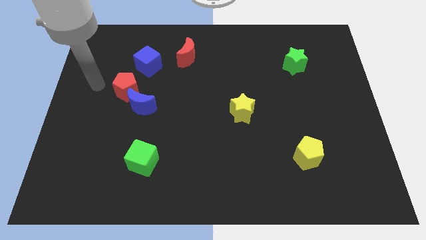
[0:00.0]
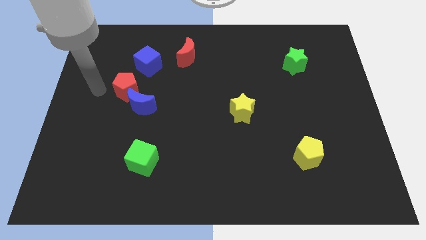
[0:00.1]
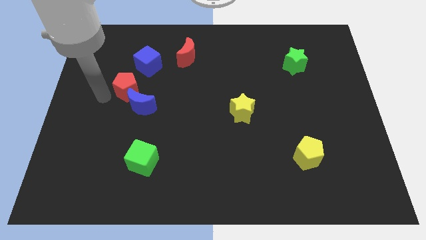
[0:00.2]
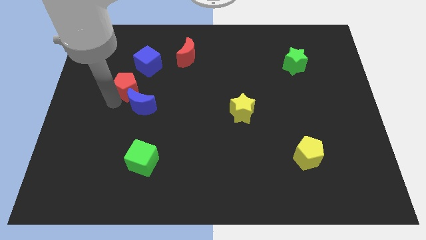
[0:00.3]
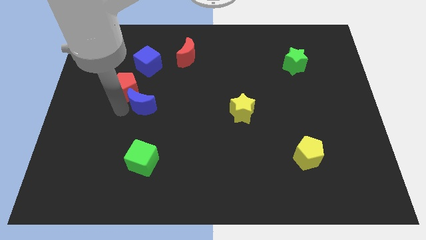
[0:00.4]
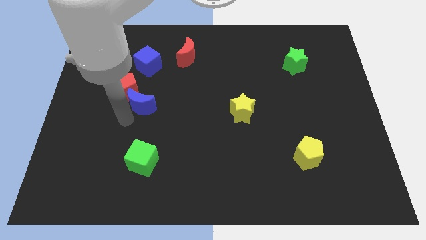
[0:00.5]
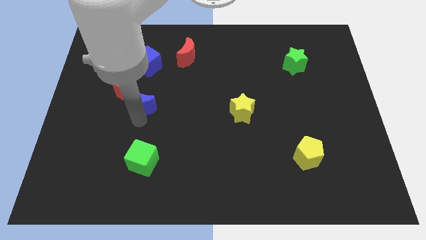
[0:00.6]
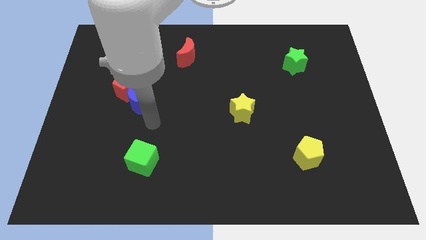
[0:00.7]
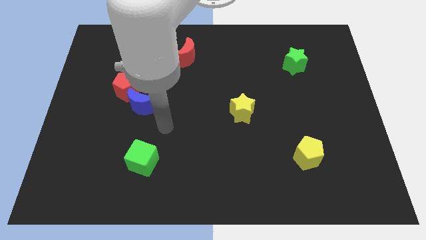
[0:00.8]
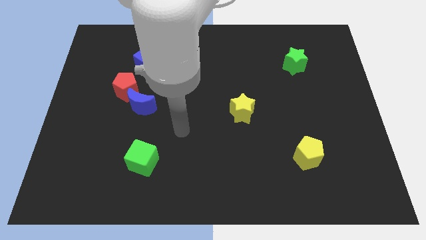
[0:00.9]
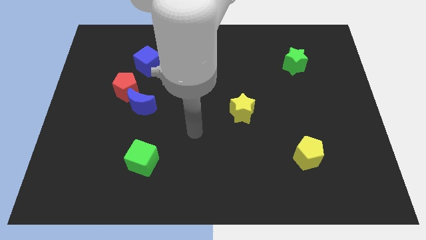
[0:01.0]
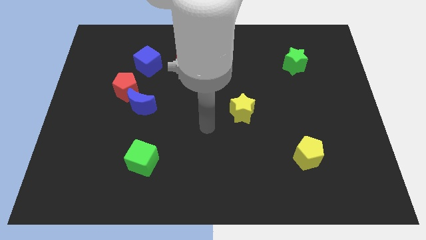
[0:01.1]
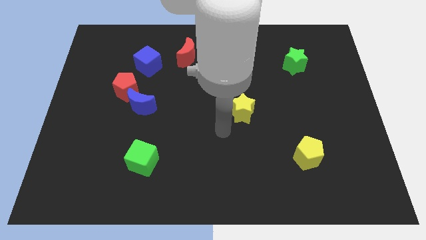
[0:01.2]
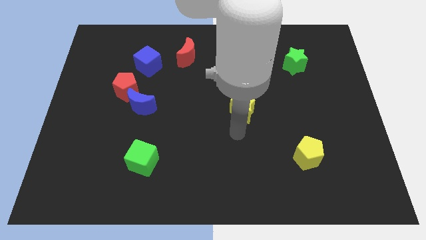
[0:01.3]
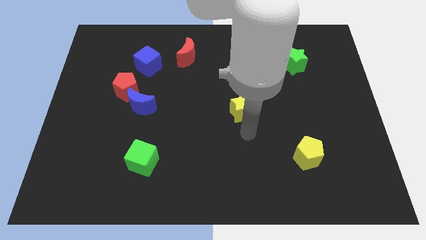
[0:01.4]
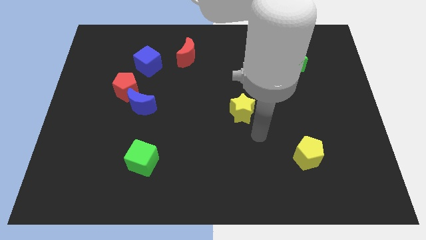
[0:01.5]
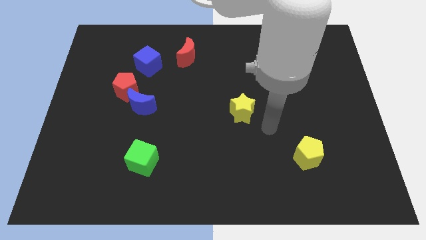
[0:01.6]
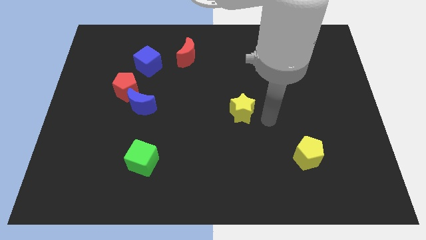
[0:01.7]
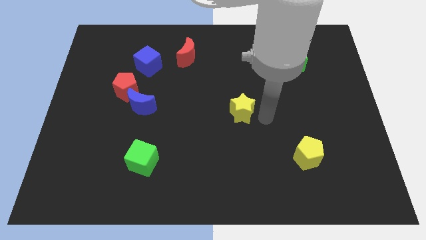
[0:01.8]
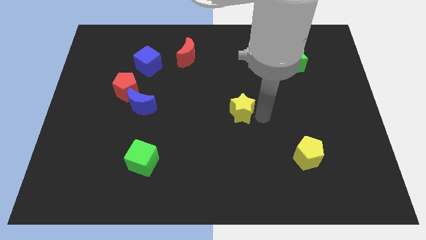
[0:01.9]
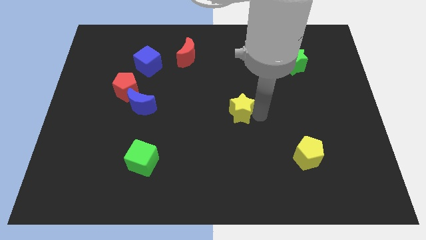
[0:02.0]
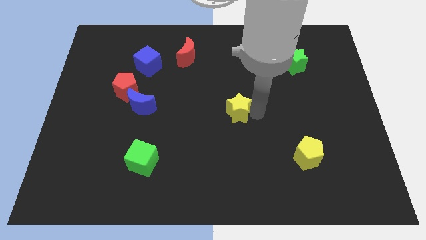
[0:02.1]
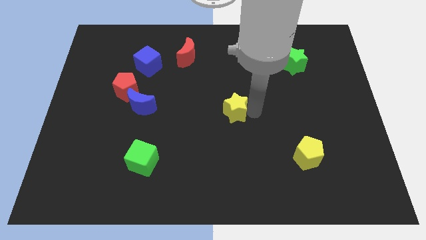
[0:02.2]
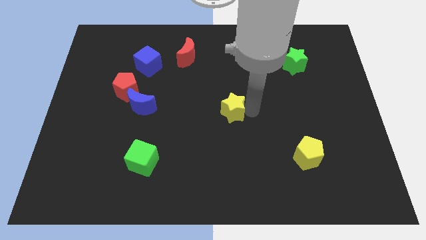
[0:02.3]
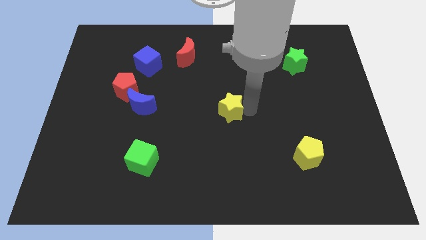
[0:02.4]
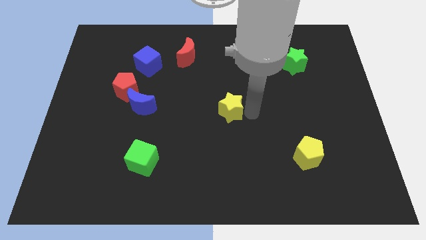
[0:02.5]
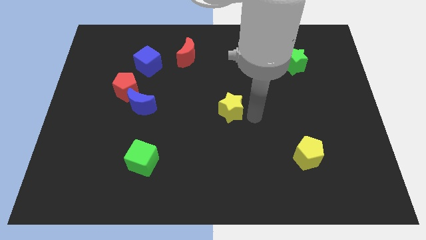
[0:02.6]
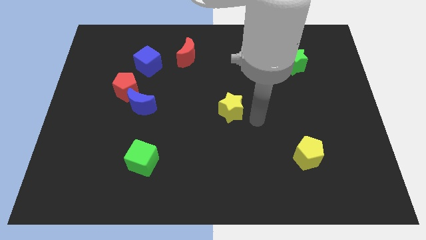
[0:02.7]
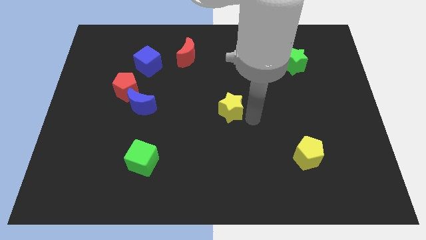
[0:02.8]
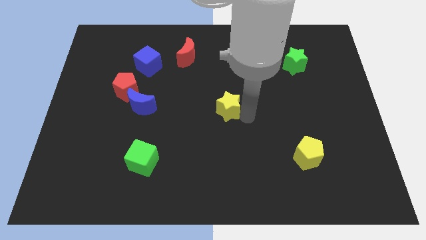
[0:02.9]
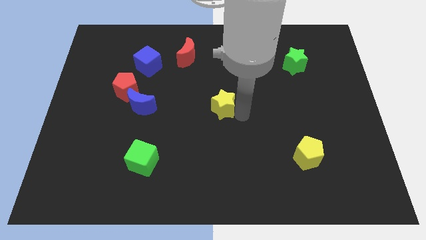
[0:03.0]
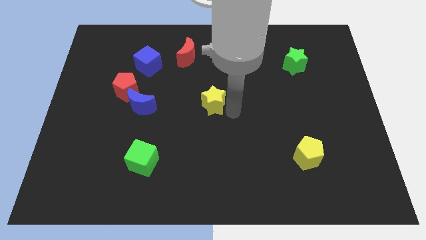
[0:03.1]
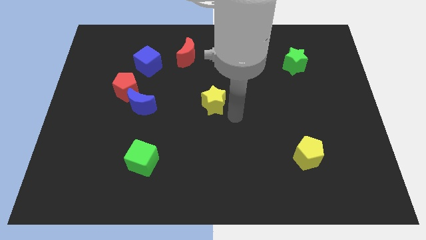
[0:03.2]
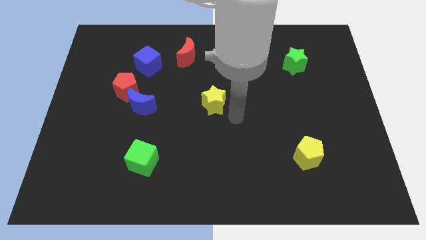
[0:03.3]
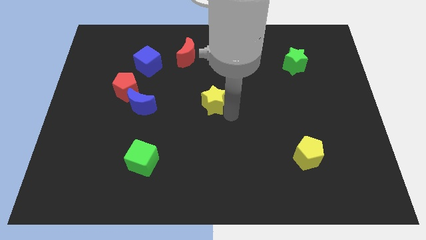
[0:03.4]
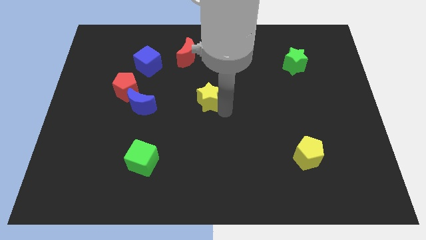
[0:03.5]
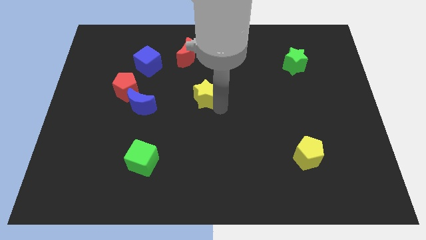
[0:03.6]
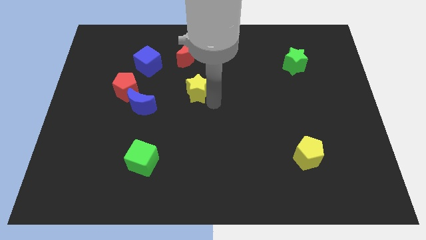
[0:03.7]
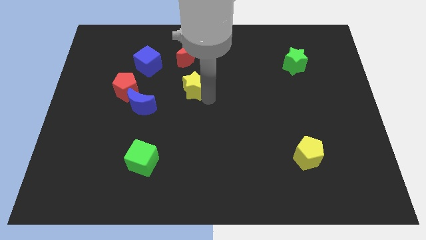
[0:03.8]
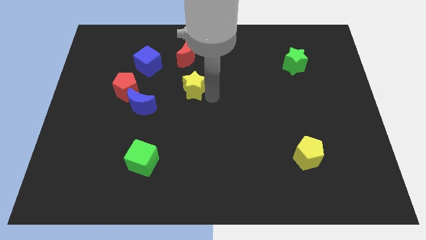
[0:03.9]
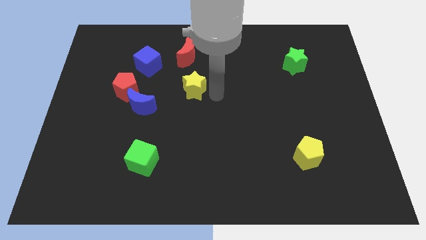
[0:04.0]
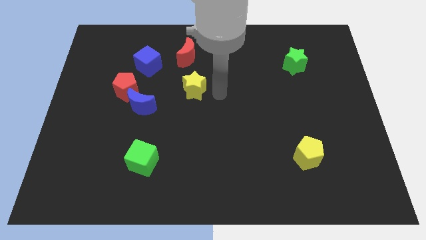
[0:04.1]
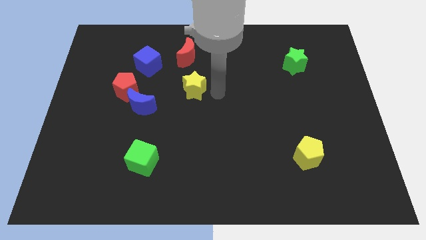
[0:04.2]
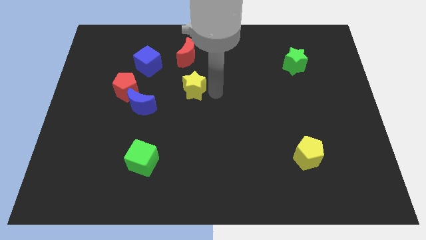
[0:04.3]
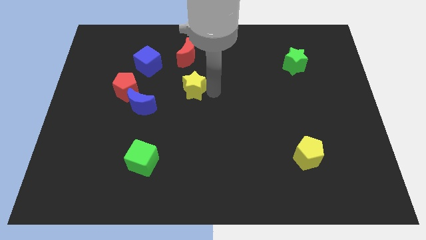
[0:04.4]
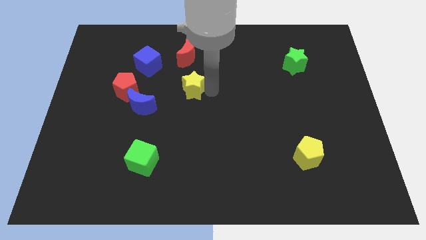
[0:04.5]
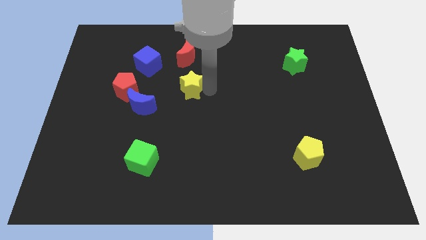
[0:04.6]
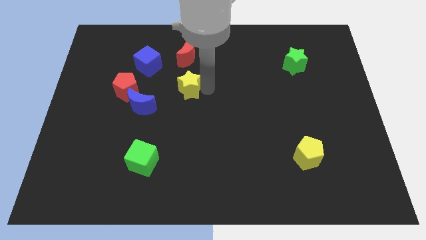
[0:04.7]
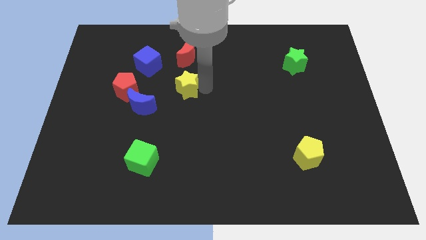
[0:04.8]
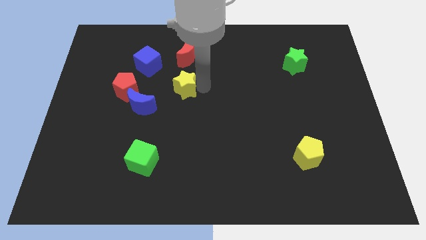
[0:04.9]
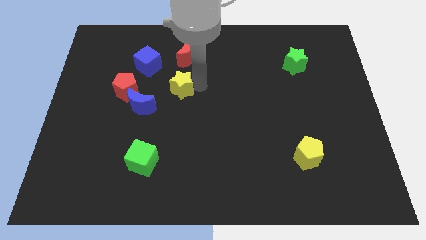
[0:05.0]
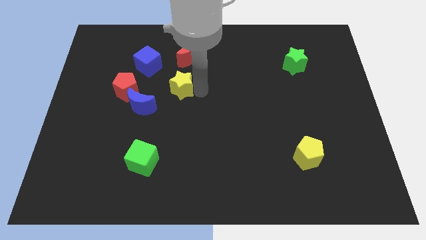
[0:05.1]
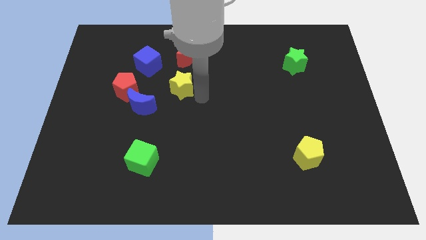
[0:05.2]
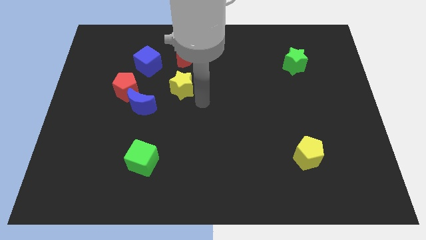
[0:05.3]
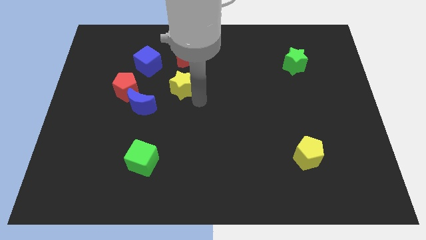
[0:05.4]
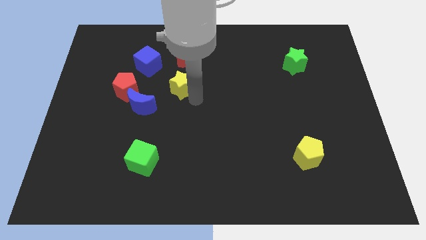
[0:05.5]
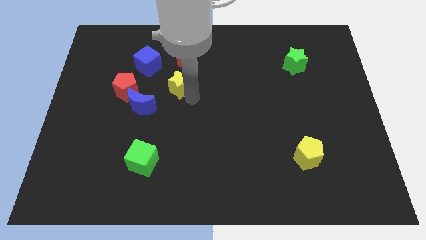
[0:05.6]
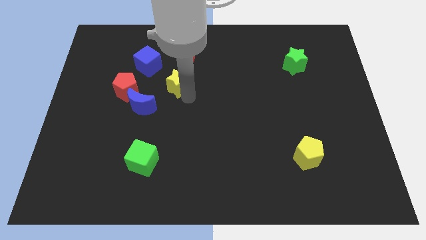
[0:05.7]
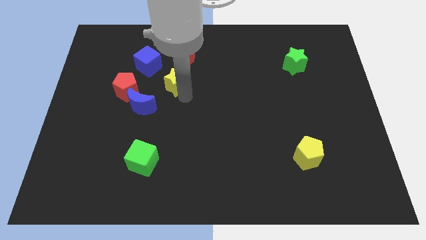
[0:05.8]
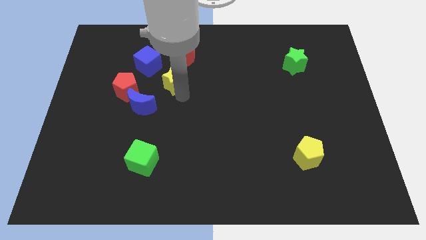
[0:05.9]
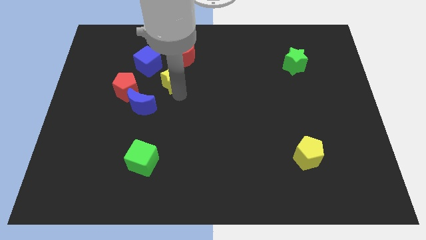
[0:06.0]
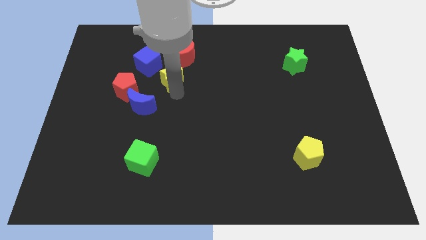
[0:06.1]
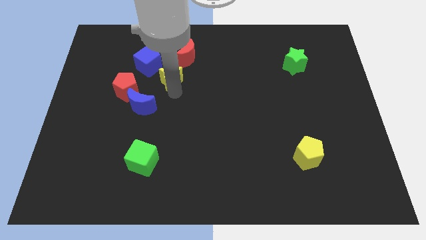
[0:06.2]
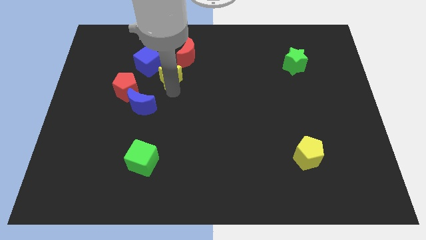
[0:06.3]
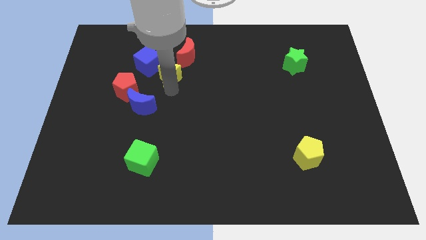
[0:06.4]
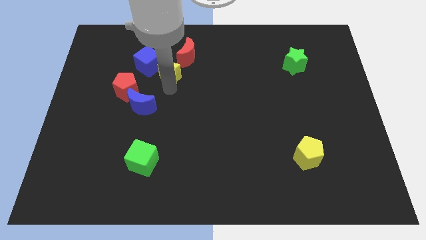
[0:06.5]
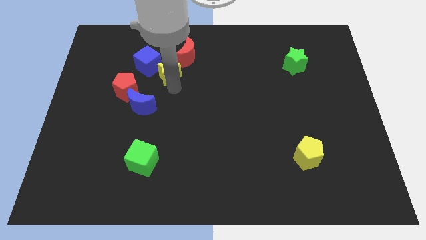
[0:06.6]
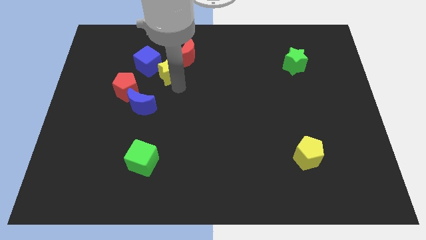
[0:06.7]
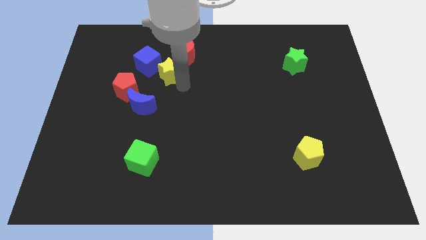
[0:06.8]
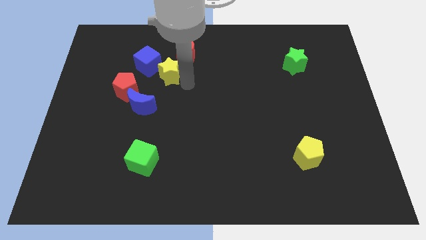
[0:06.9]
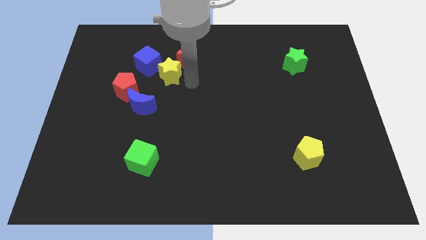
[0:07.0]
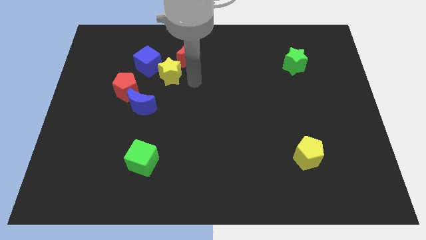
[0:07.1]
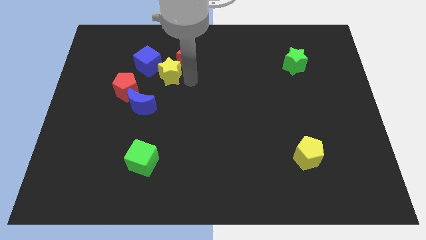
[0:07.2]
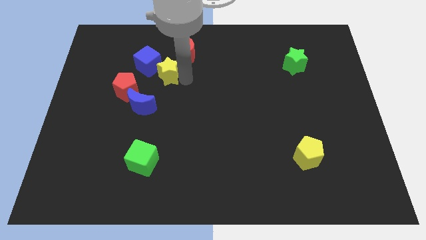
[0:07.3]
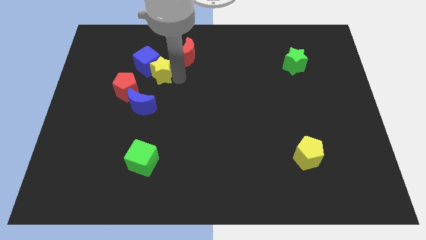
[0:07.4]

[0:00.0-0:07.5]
move the yellow star towards the blue cube
